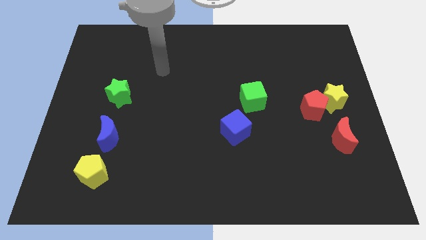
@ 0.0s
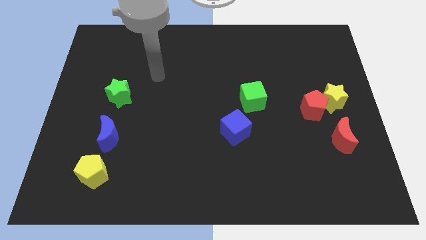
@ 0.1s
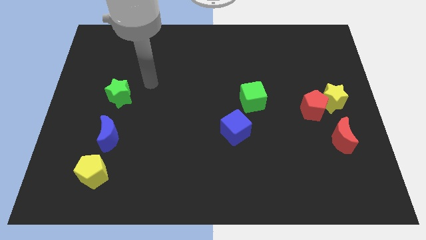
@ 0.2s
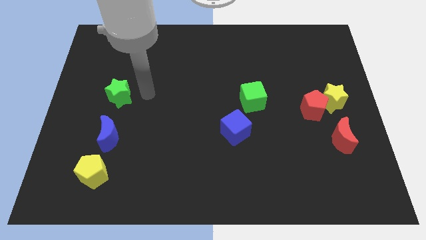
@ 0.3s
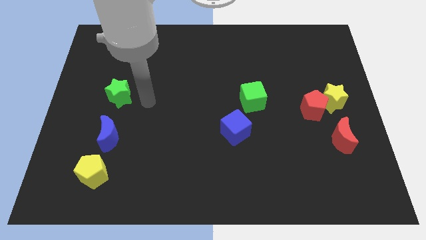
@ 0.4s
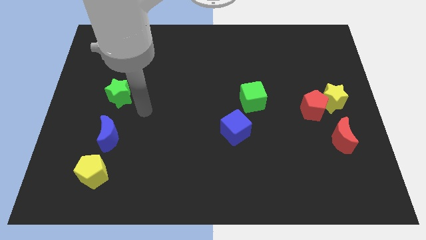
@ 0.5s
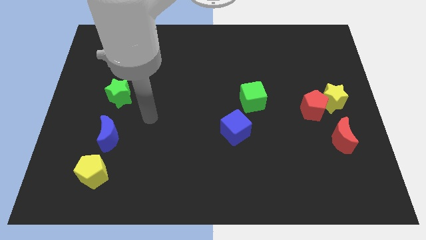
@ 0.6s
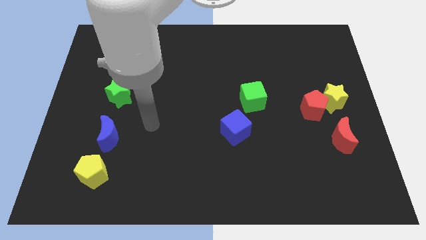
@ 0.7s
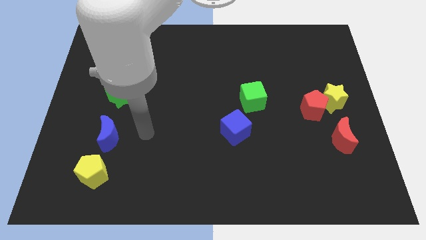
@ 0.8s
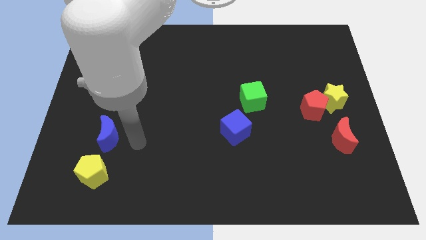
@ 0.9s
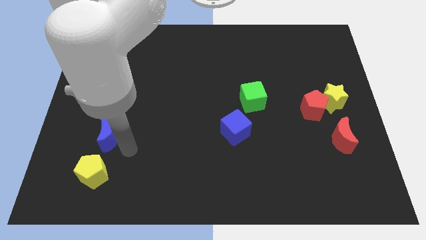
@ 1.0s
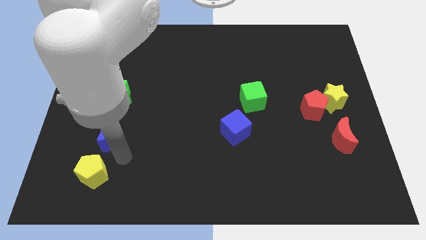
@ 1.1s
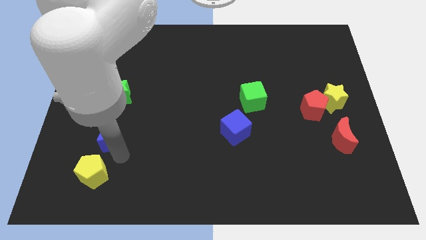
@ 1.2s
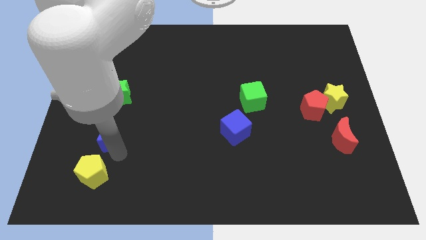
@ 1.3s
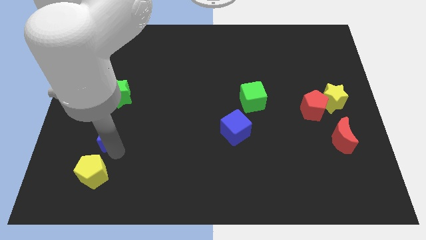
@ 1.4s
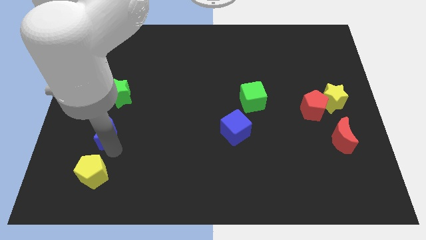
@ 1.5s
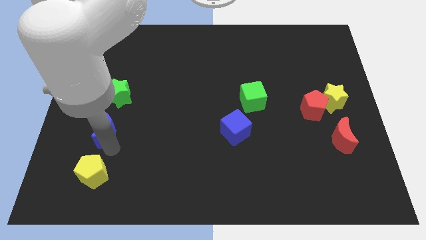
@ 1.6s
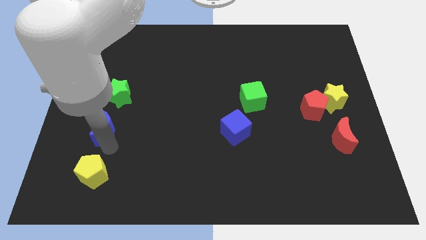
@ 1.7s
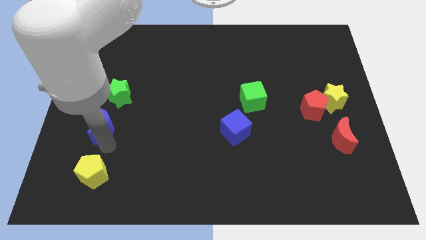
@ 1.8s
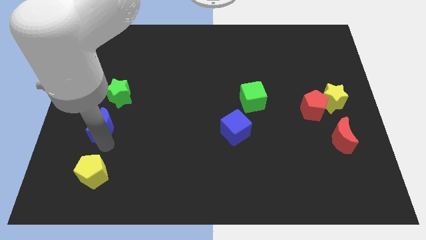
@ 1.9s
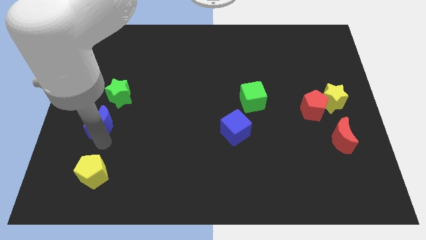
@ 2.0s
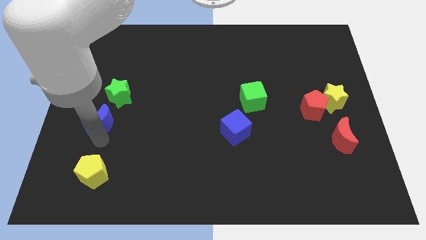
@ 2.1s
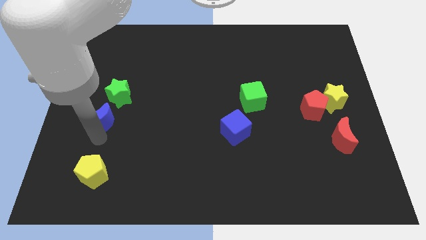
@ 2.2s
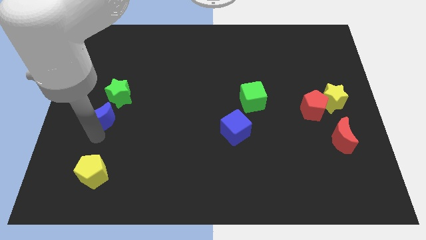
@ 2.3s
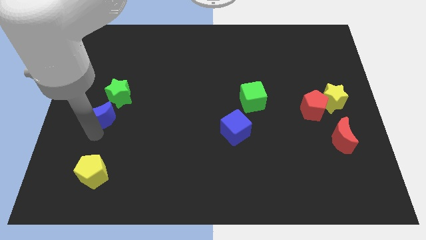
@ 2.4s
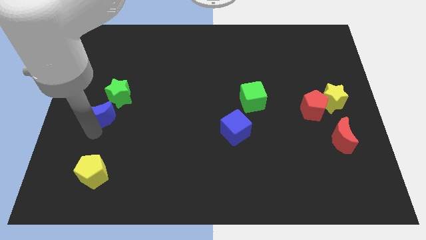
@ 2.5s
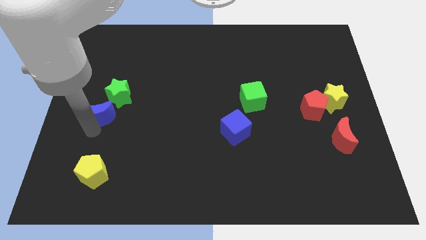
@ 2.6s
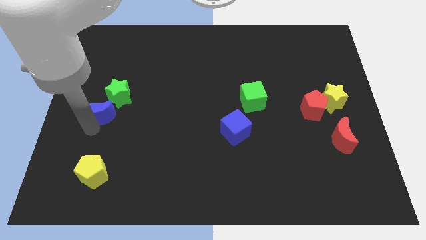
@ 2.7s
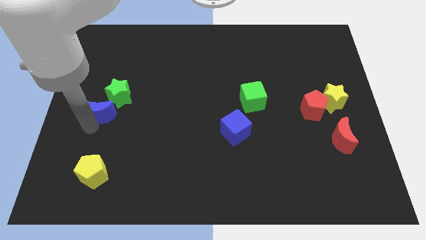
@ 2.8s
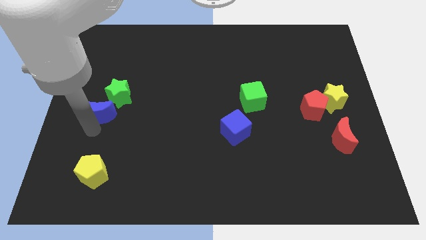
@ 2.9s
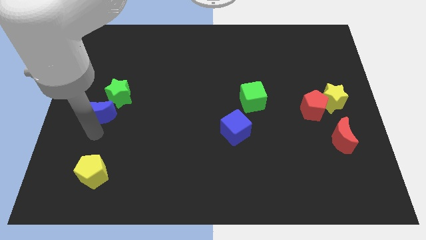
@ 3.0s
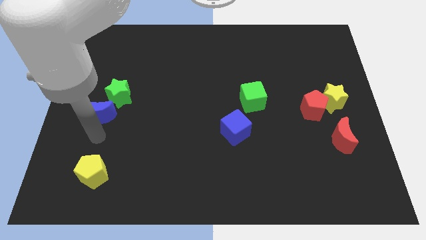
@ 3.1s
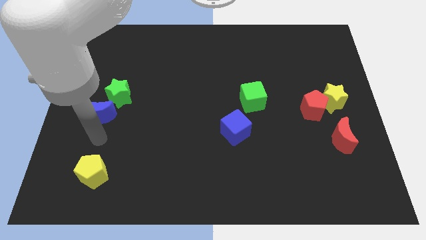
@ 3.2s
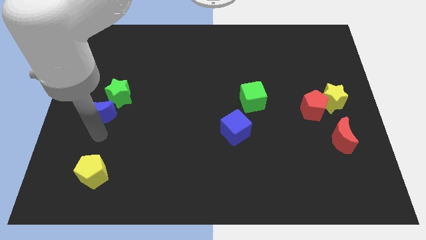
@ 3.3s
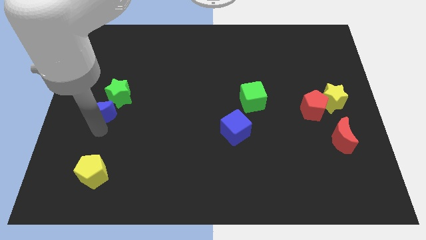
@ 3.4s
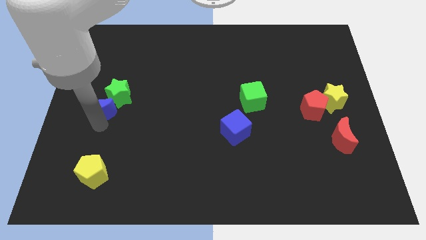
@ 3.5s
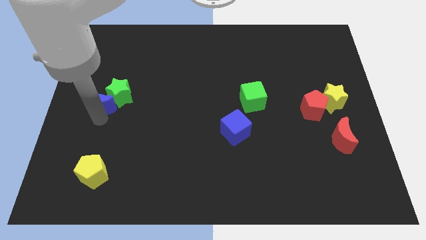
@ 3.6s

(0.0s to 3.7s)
slightly push the blue moon up

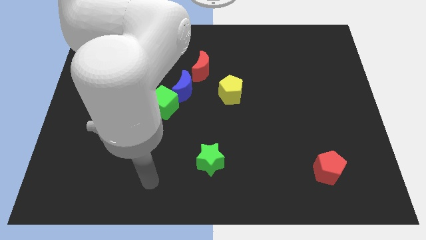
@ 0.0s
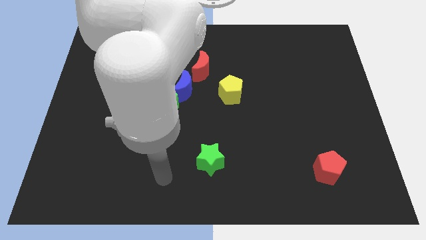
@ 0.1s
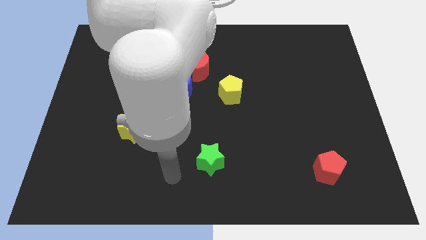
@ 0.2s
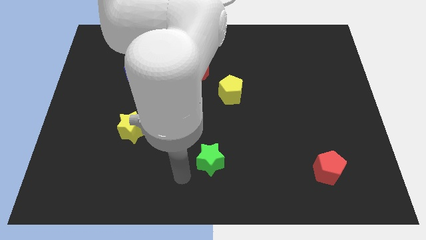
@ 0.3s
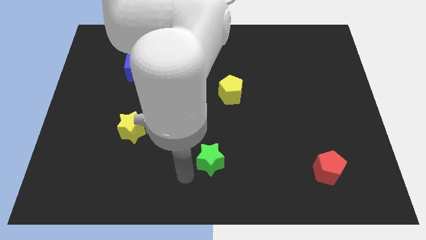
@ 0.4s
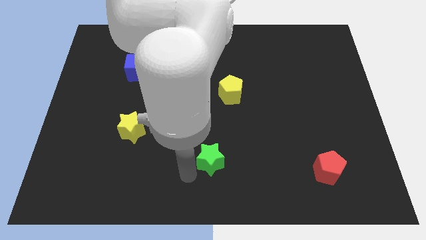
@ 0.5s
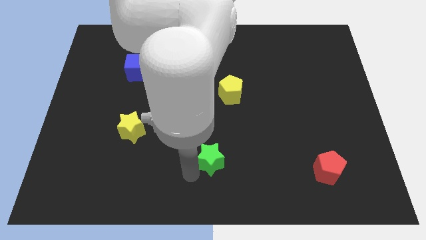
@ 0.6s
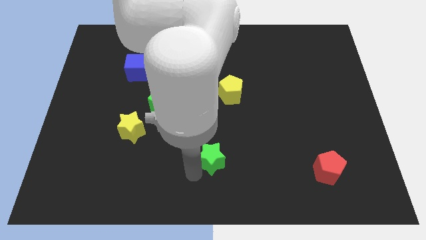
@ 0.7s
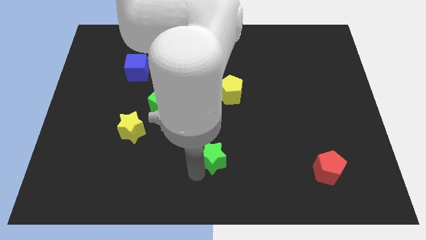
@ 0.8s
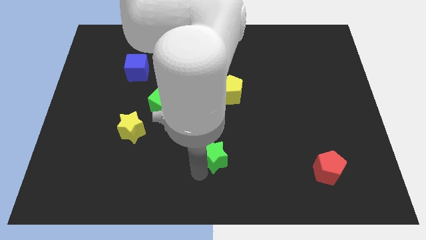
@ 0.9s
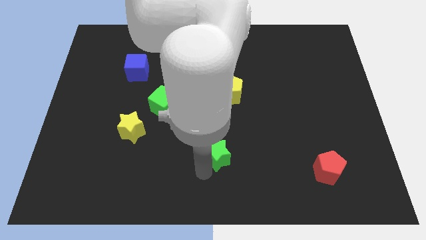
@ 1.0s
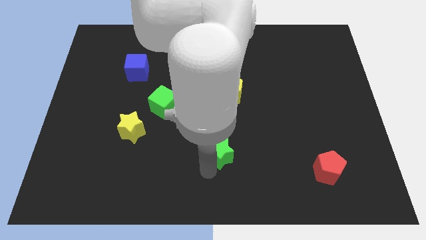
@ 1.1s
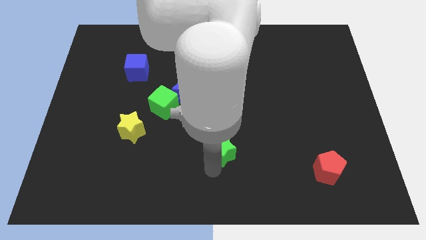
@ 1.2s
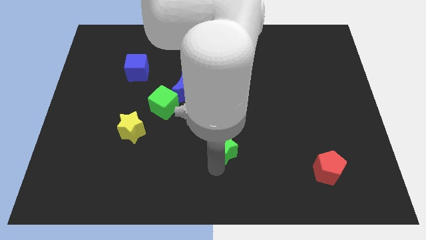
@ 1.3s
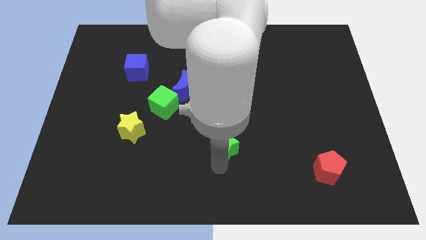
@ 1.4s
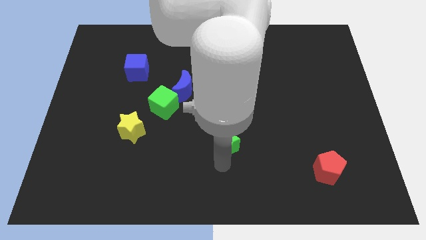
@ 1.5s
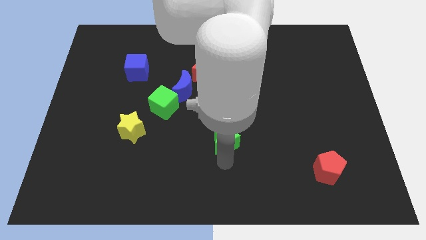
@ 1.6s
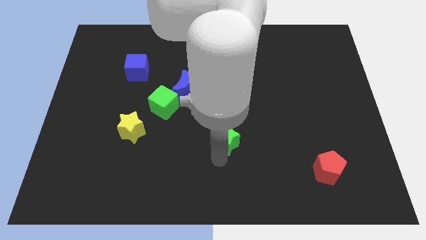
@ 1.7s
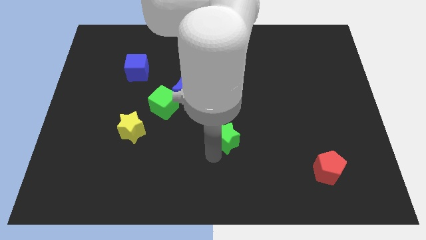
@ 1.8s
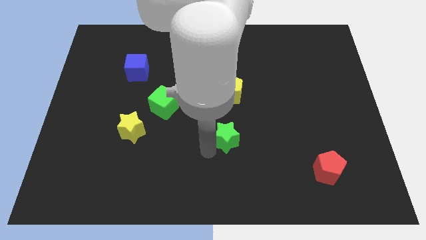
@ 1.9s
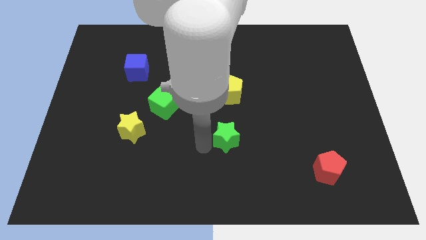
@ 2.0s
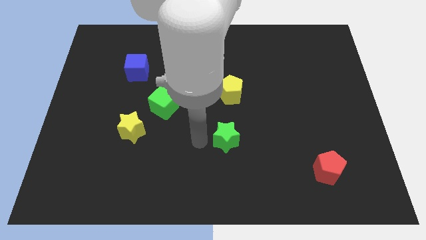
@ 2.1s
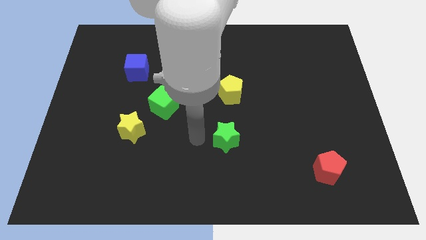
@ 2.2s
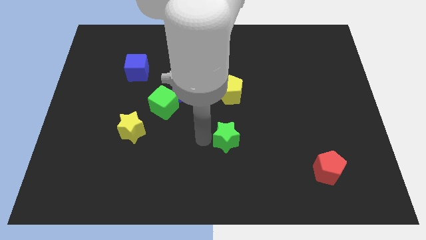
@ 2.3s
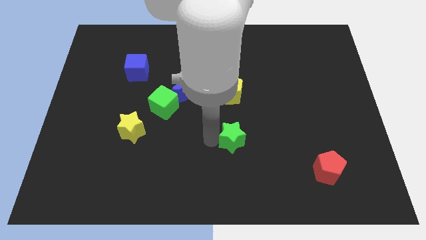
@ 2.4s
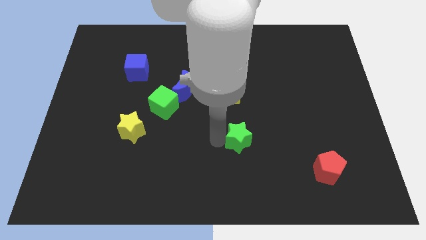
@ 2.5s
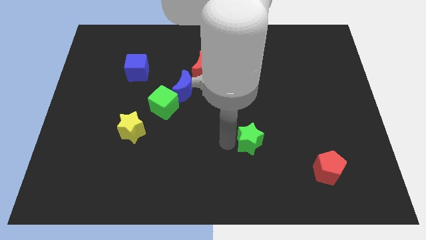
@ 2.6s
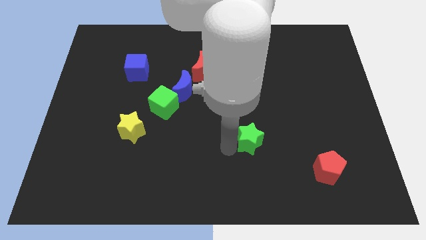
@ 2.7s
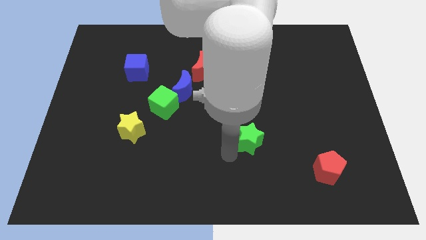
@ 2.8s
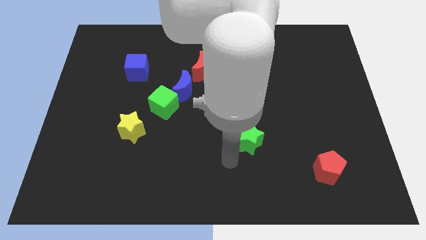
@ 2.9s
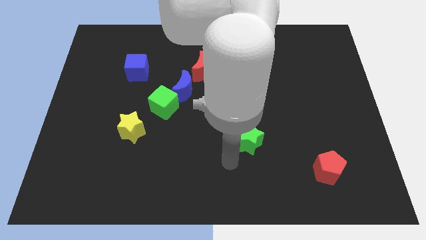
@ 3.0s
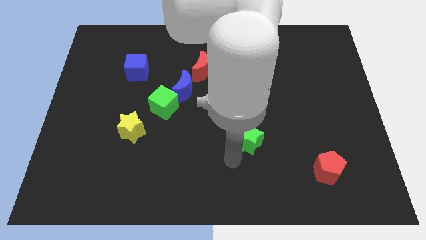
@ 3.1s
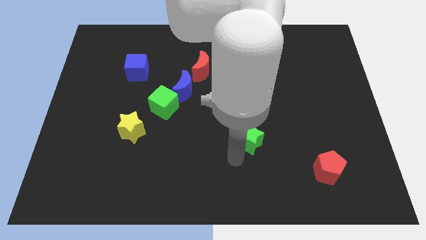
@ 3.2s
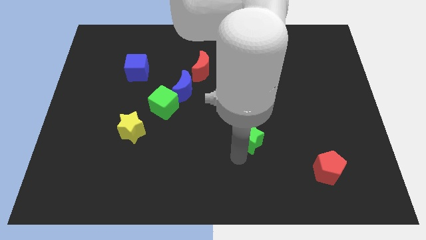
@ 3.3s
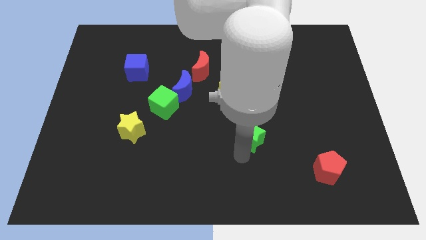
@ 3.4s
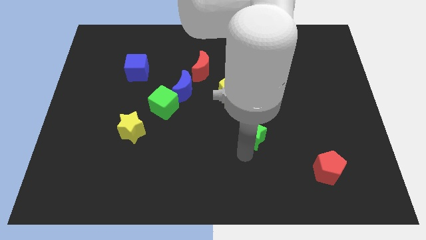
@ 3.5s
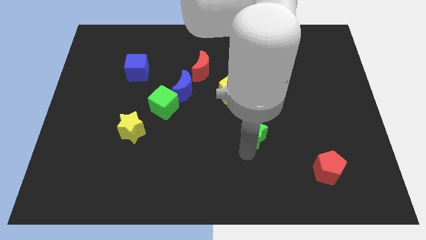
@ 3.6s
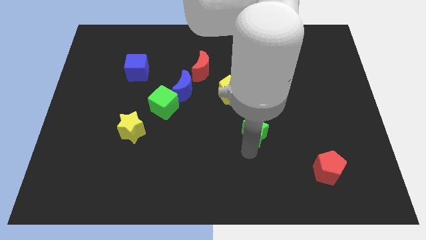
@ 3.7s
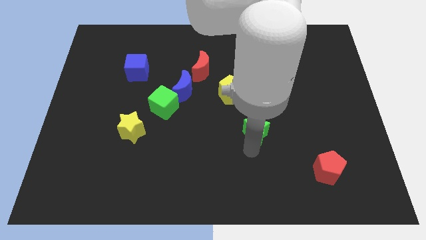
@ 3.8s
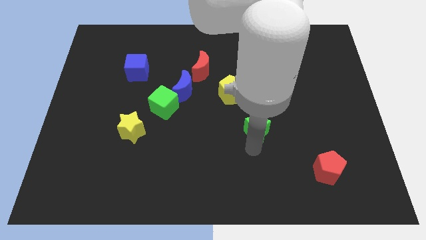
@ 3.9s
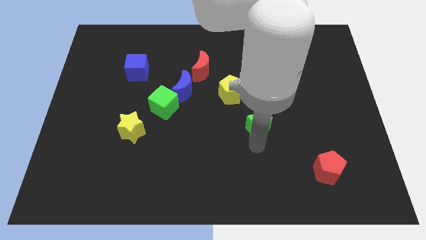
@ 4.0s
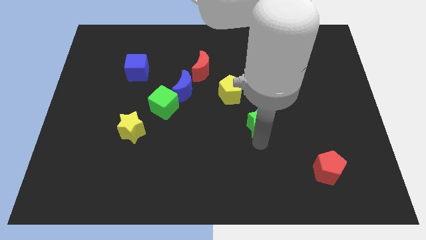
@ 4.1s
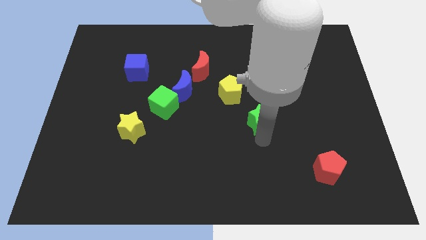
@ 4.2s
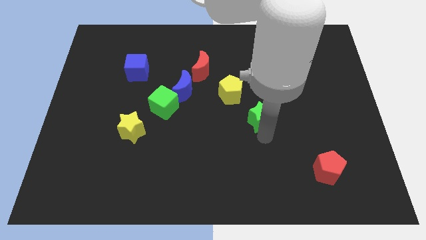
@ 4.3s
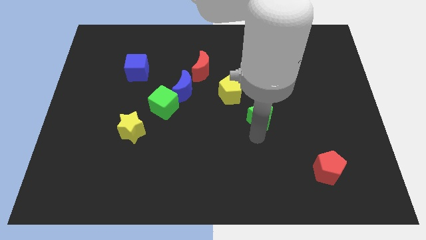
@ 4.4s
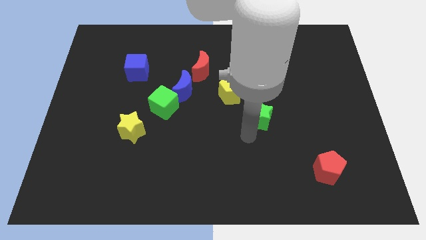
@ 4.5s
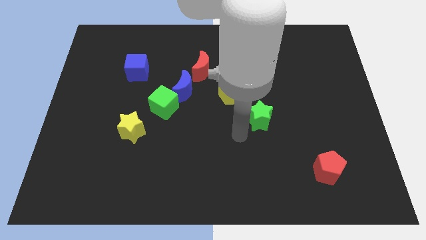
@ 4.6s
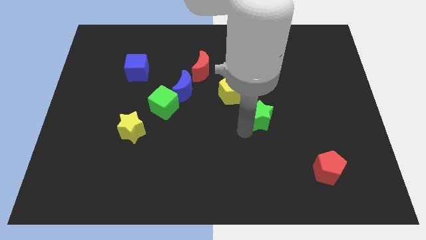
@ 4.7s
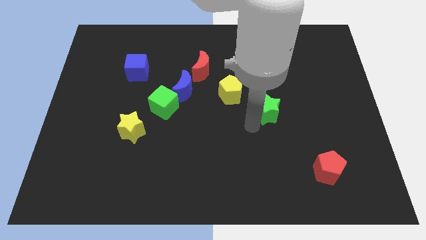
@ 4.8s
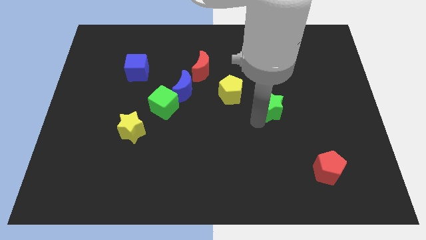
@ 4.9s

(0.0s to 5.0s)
move the green star up and right diagonally
